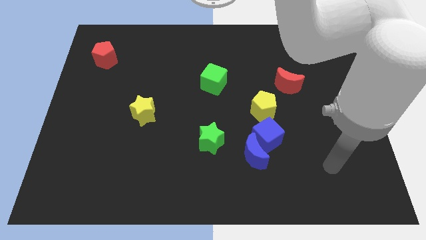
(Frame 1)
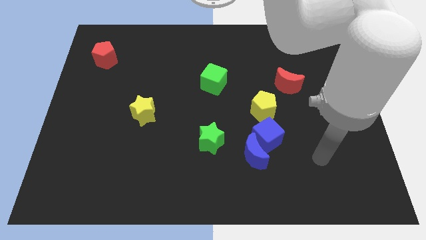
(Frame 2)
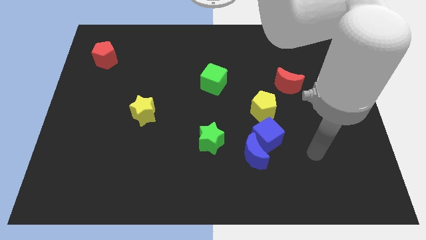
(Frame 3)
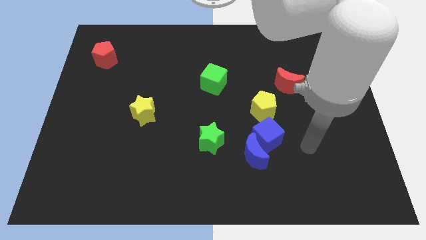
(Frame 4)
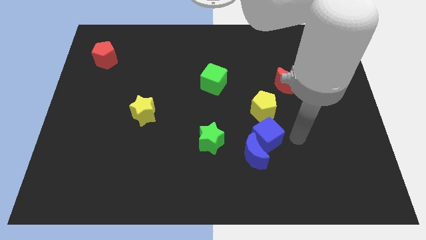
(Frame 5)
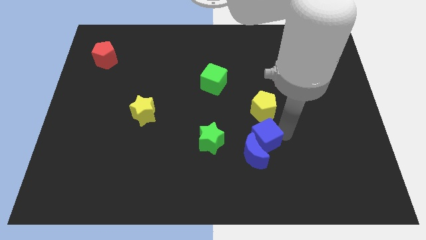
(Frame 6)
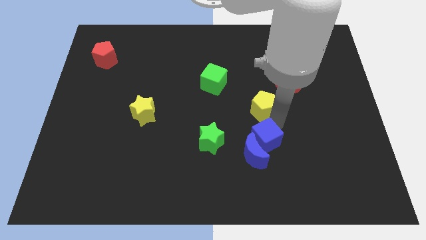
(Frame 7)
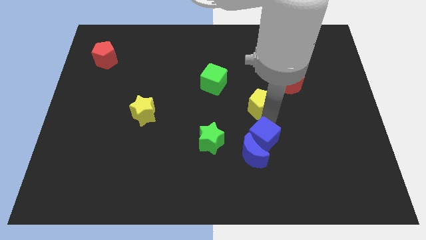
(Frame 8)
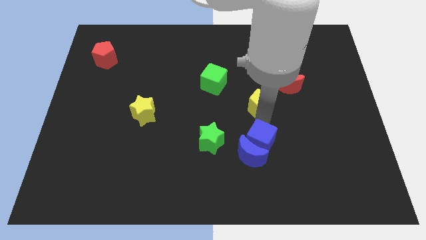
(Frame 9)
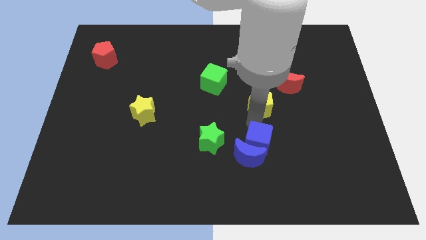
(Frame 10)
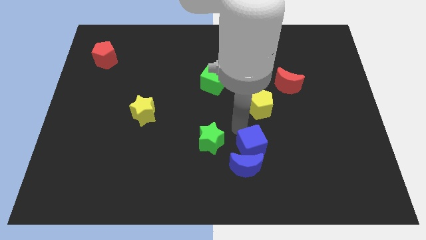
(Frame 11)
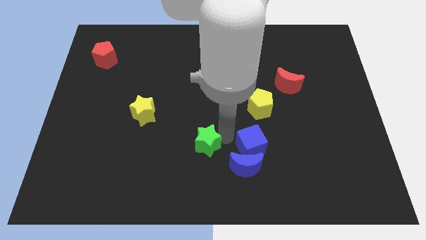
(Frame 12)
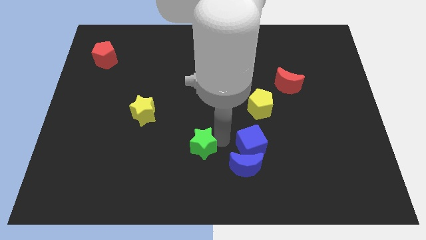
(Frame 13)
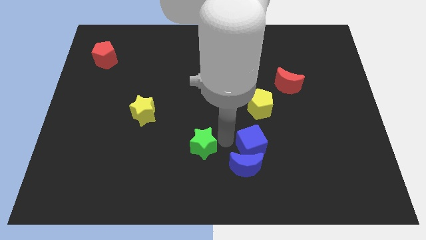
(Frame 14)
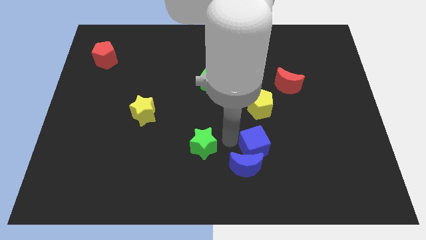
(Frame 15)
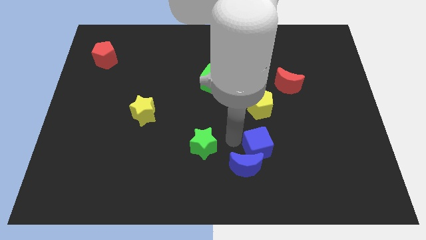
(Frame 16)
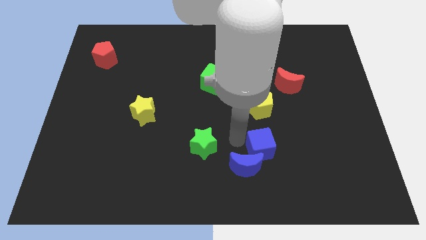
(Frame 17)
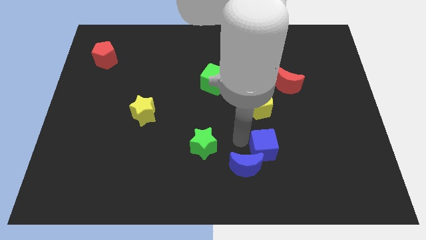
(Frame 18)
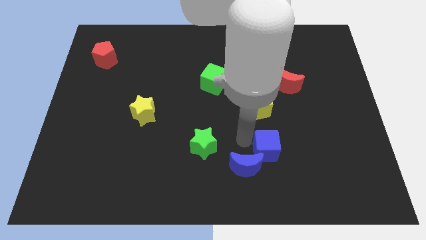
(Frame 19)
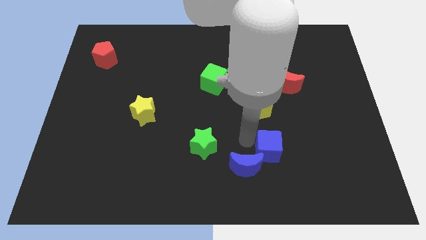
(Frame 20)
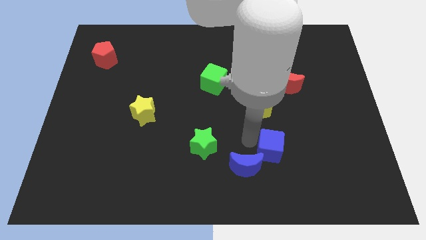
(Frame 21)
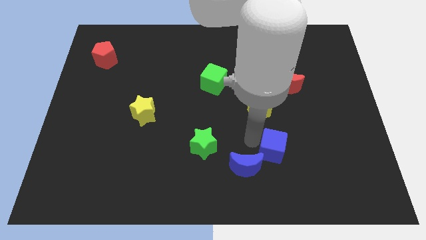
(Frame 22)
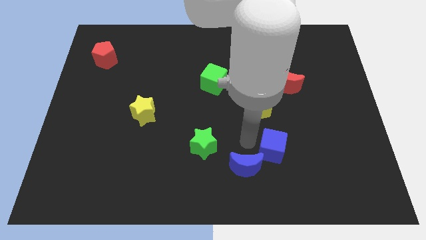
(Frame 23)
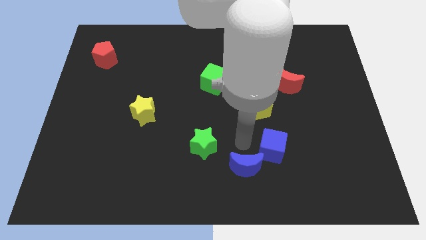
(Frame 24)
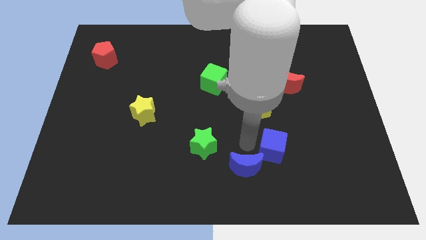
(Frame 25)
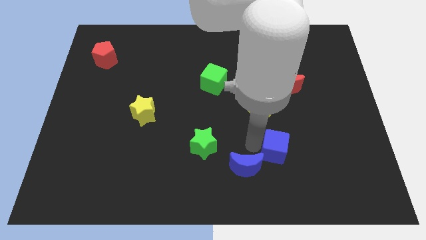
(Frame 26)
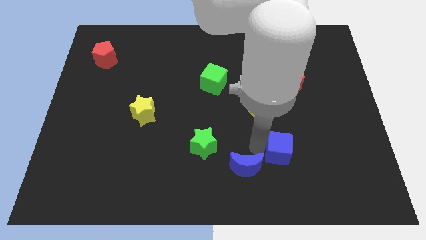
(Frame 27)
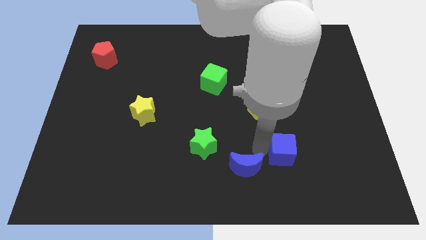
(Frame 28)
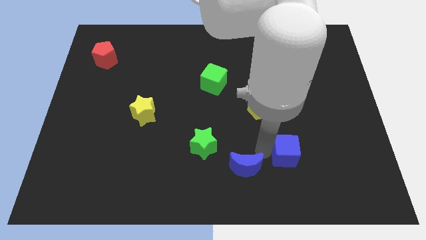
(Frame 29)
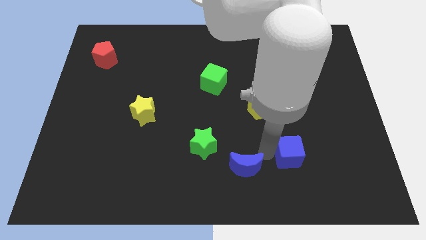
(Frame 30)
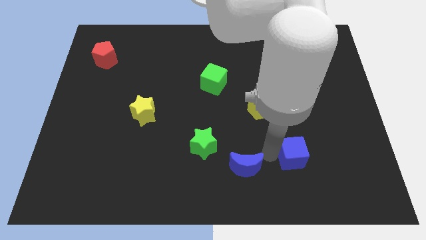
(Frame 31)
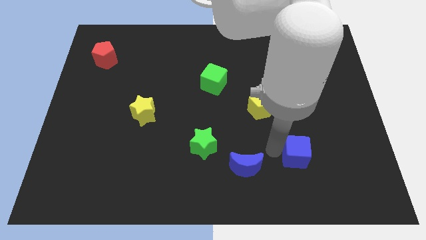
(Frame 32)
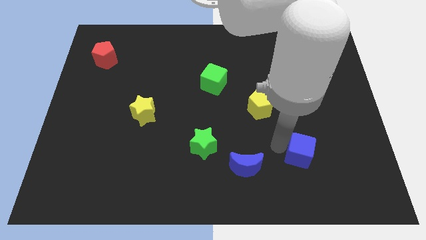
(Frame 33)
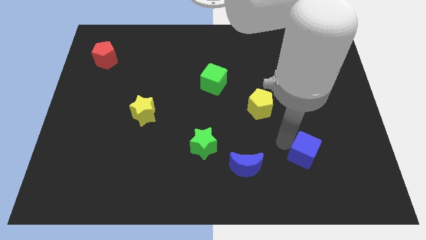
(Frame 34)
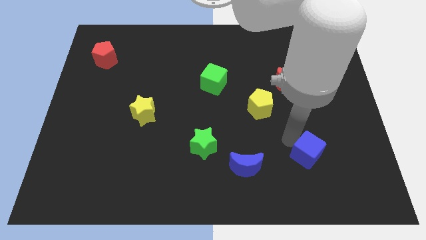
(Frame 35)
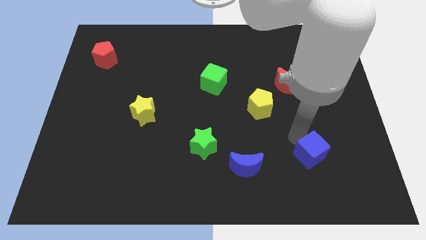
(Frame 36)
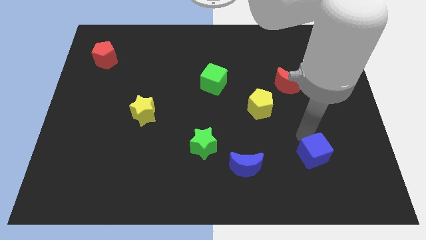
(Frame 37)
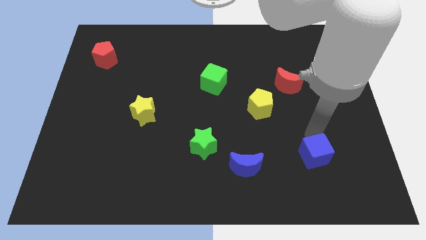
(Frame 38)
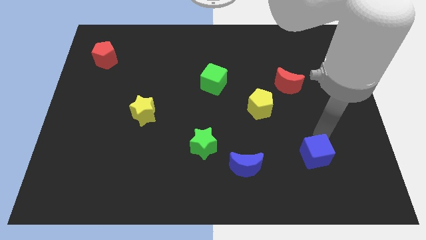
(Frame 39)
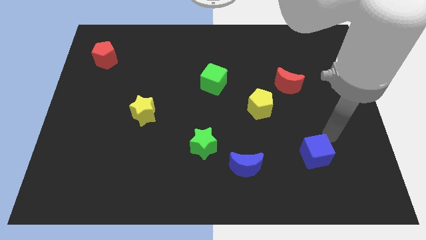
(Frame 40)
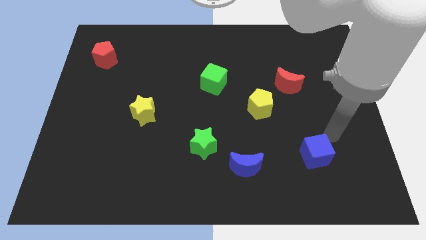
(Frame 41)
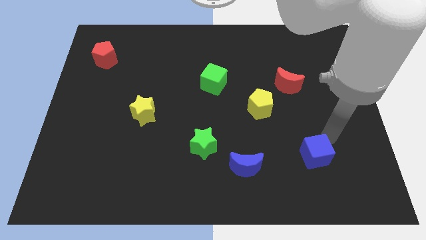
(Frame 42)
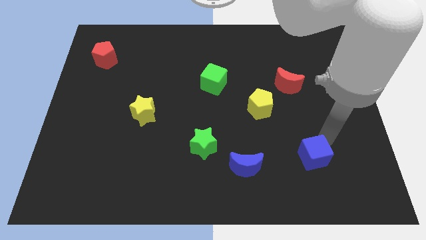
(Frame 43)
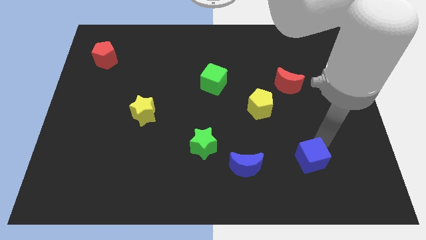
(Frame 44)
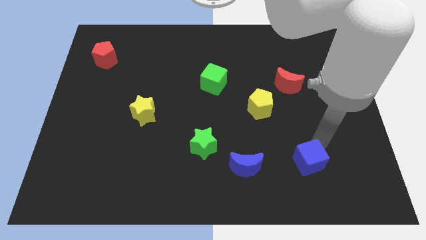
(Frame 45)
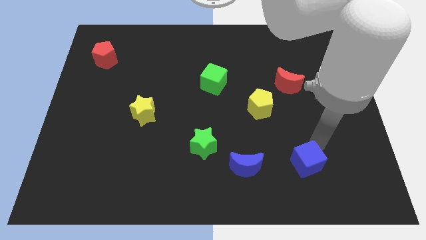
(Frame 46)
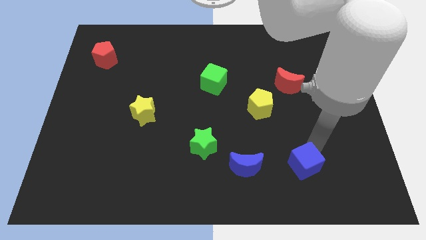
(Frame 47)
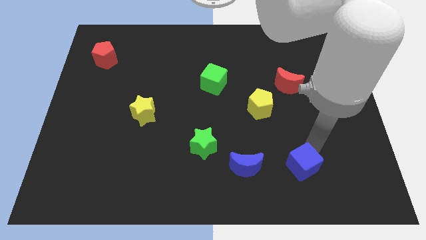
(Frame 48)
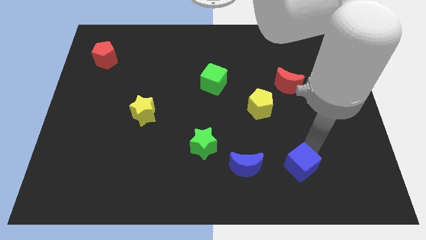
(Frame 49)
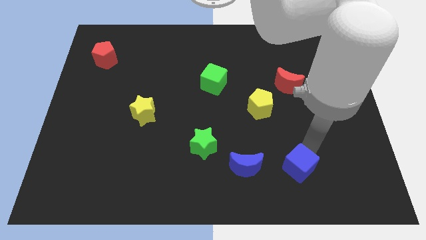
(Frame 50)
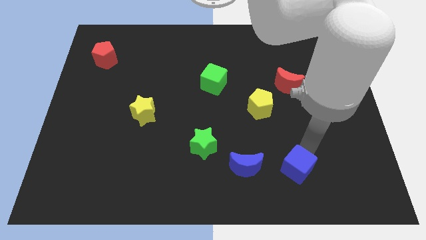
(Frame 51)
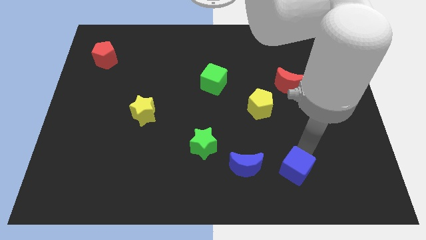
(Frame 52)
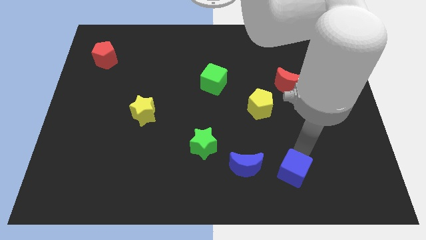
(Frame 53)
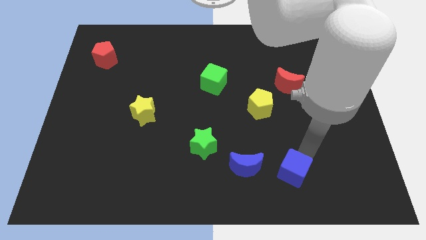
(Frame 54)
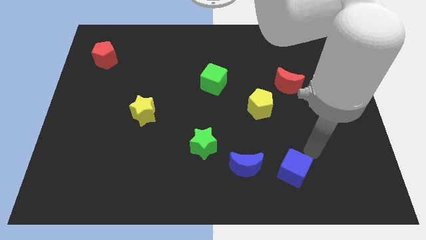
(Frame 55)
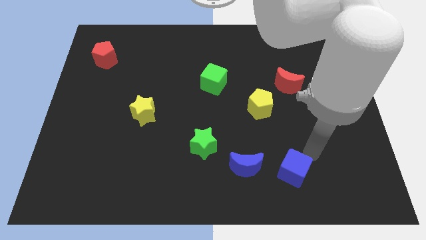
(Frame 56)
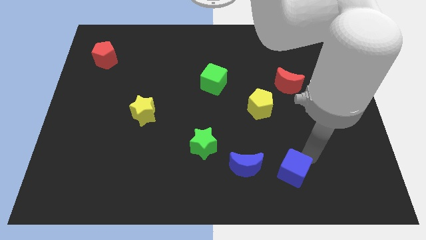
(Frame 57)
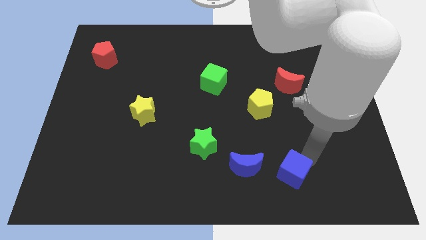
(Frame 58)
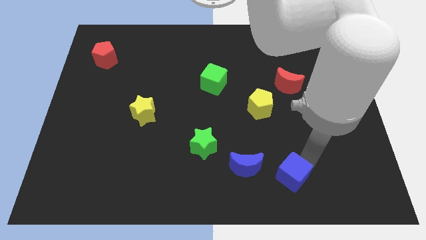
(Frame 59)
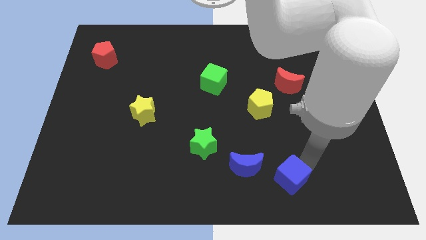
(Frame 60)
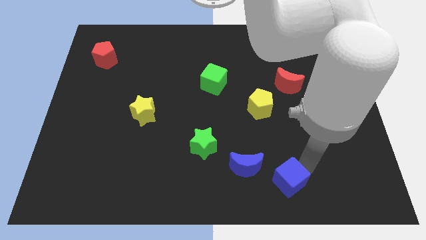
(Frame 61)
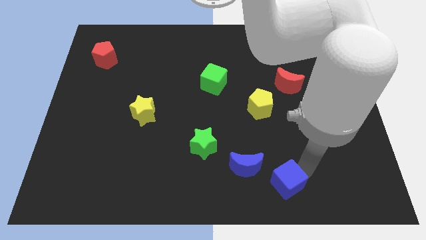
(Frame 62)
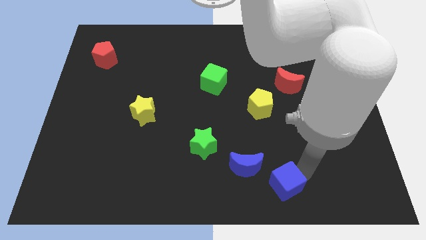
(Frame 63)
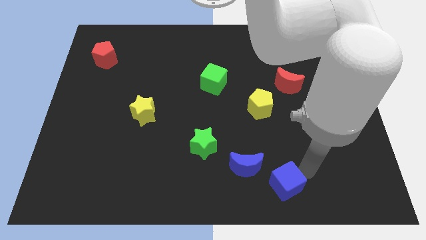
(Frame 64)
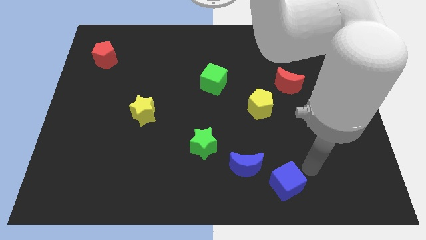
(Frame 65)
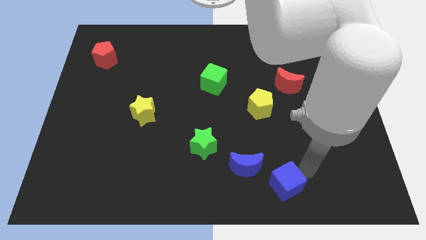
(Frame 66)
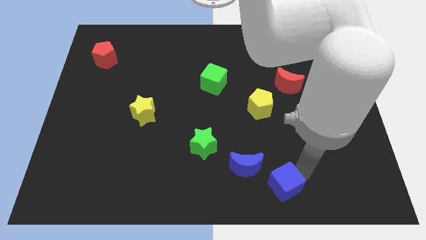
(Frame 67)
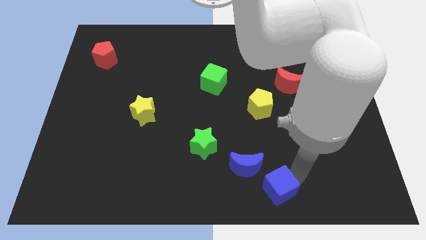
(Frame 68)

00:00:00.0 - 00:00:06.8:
push the blue cube to the bottom side
